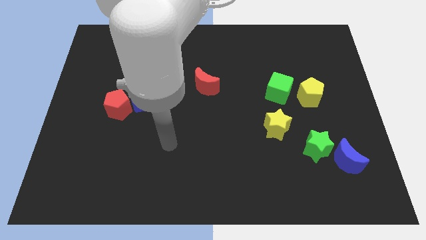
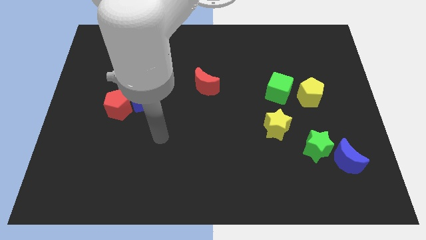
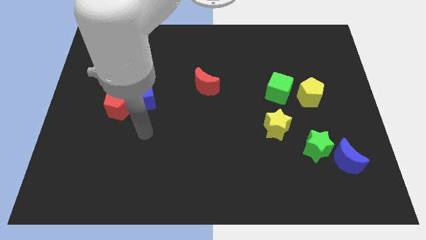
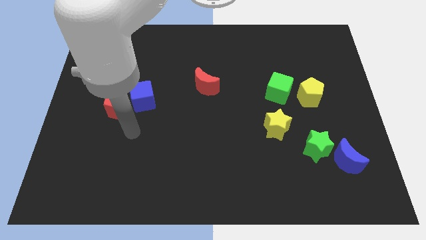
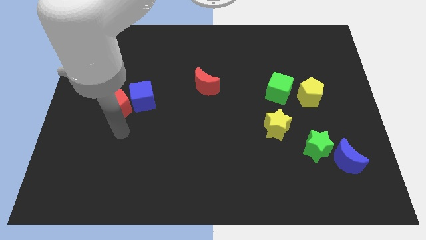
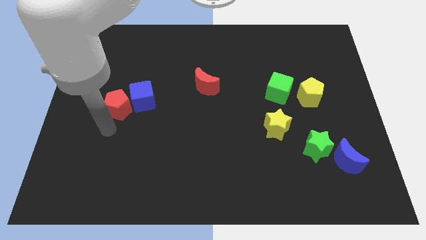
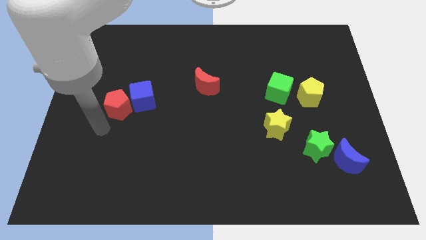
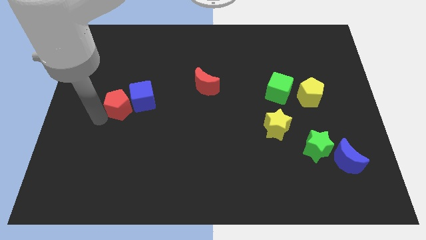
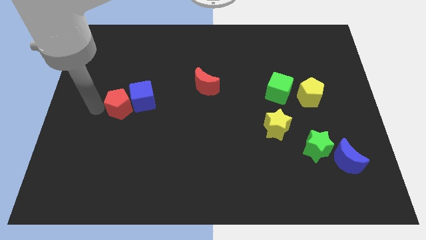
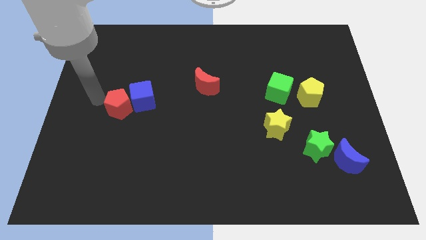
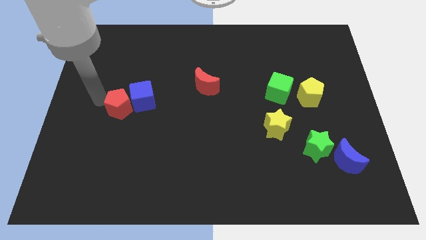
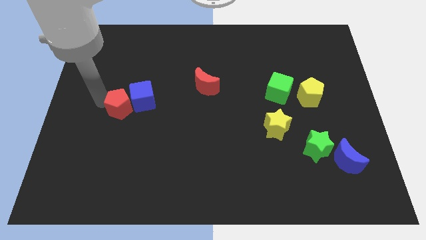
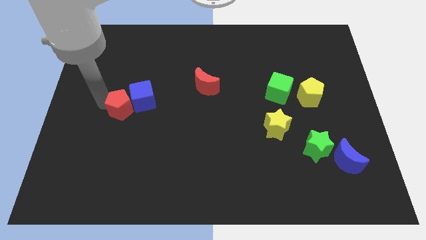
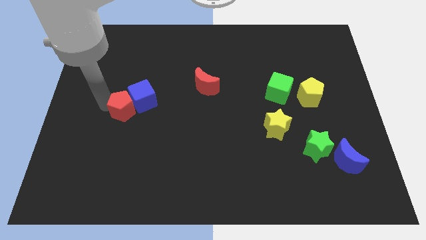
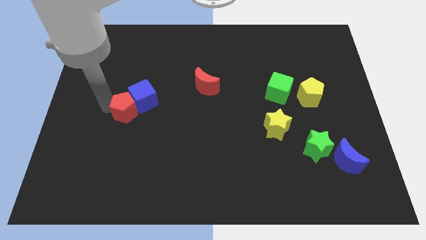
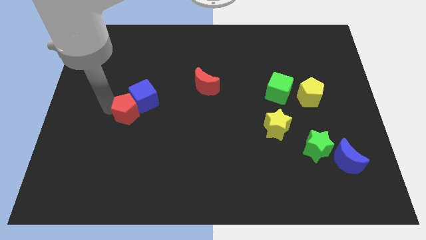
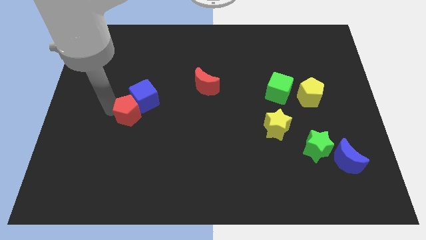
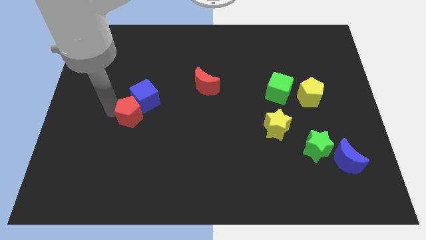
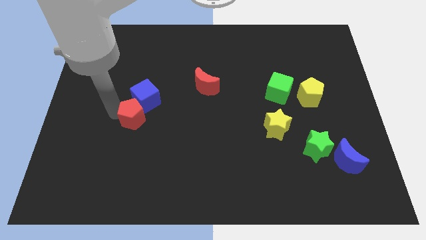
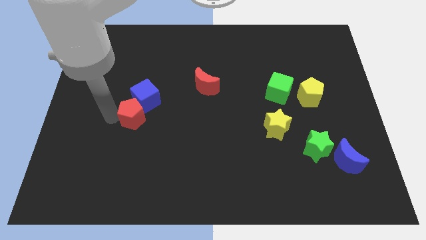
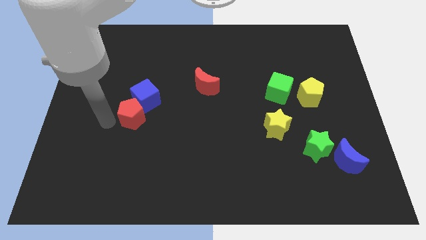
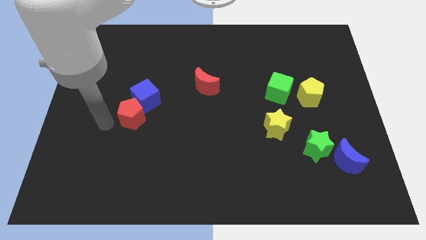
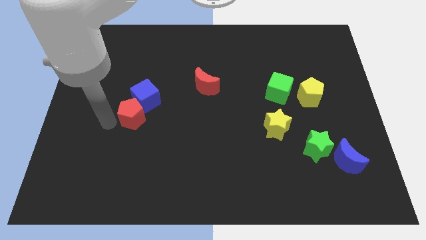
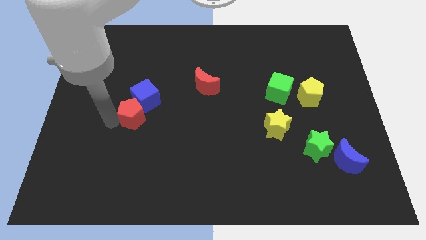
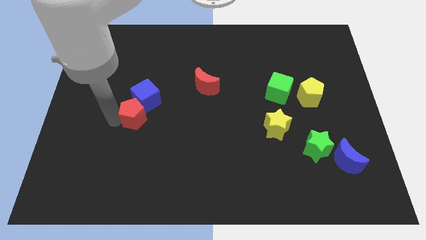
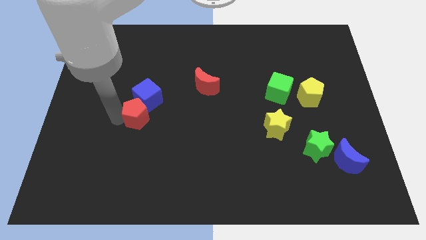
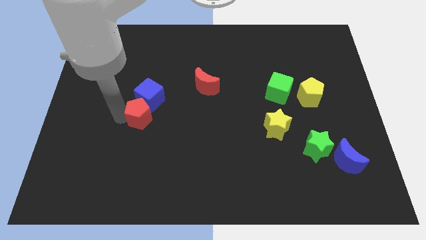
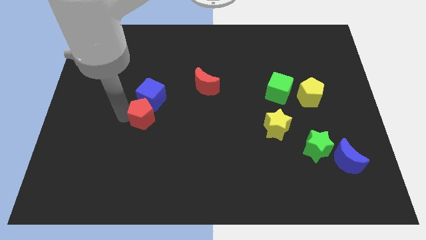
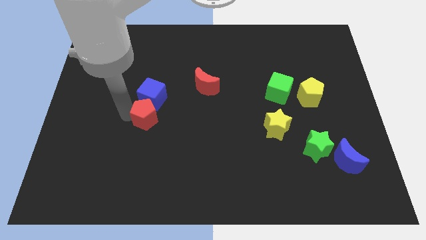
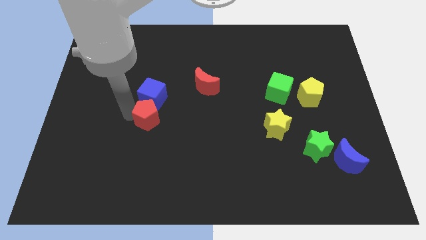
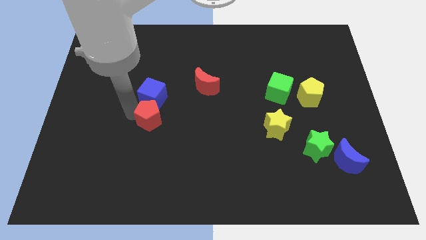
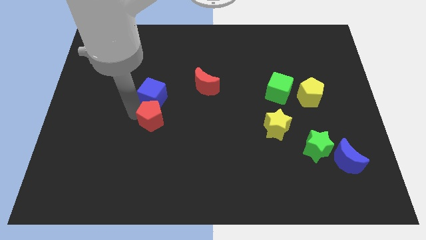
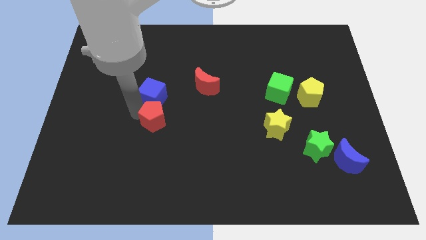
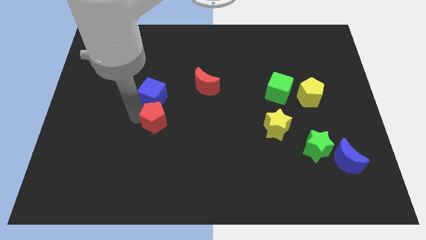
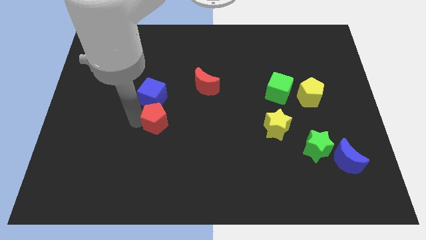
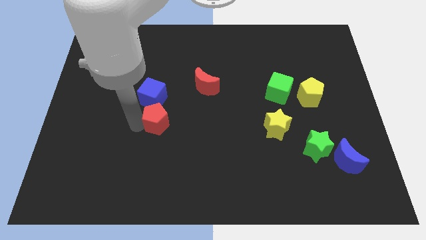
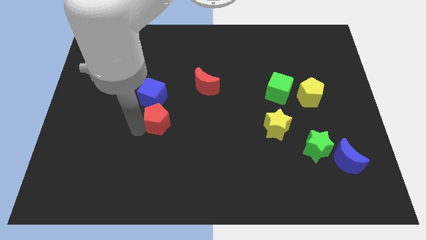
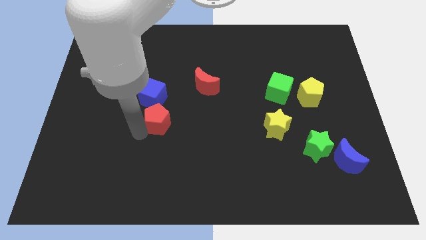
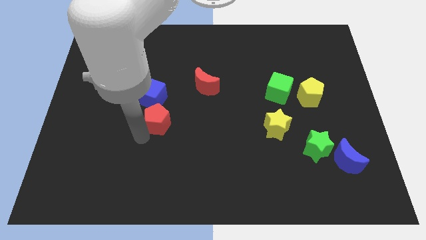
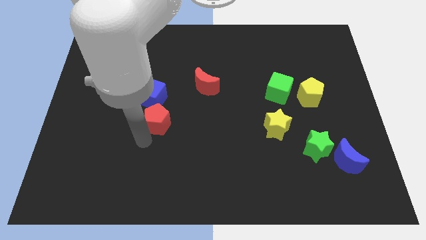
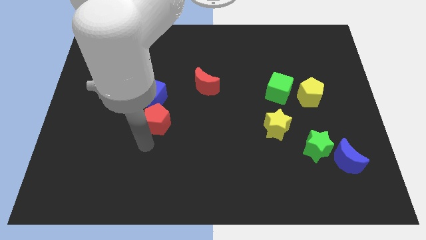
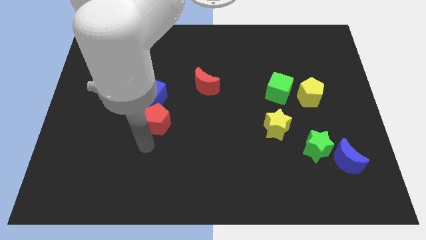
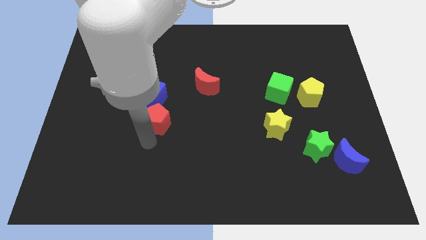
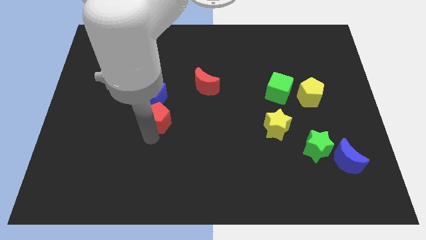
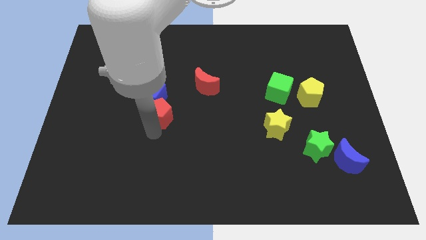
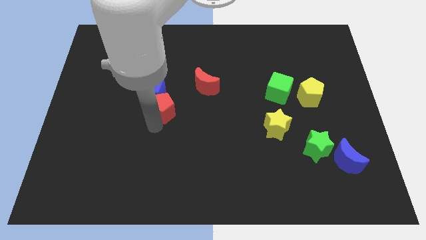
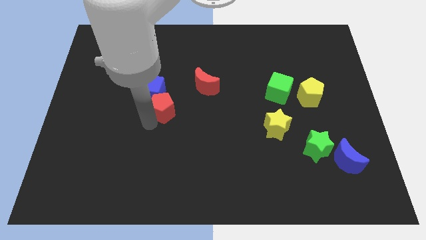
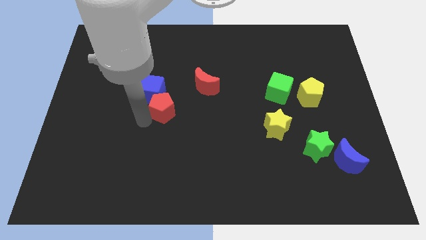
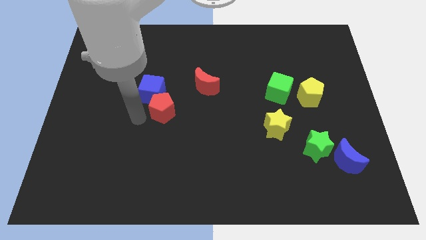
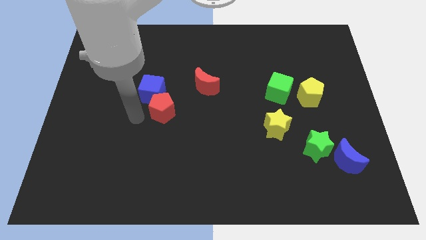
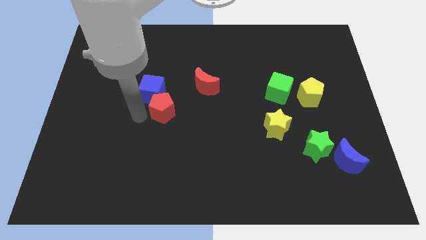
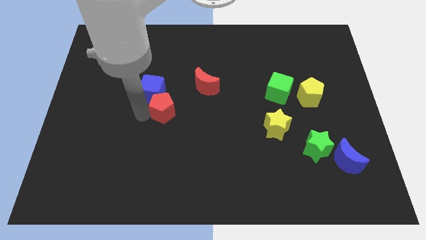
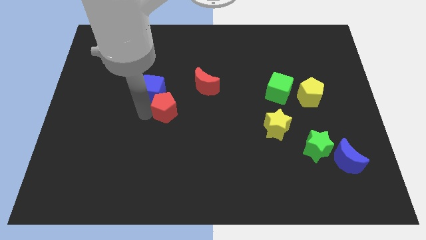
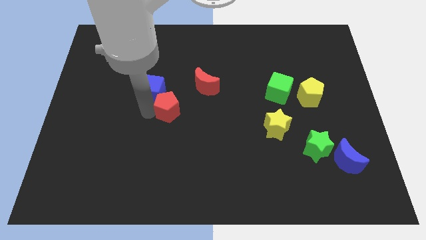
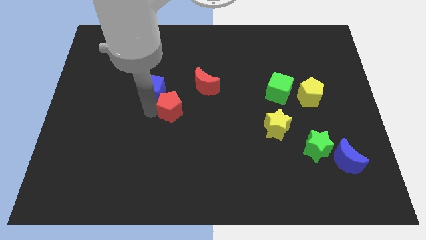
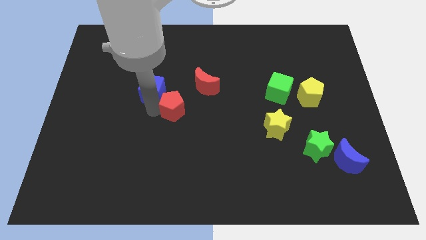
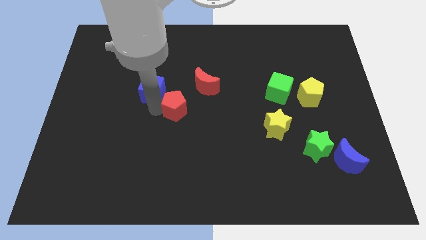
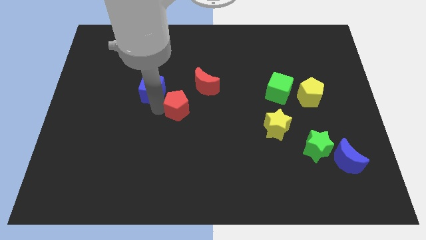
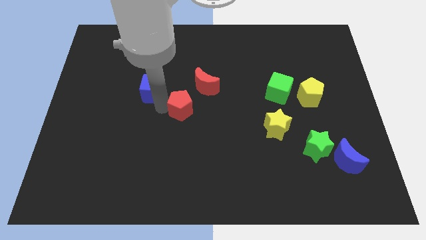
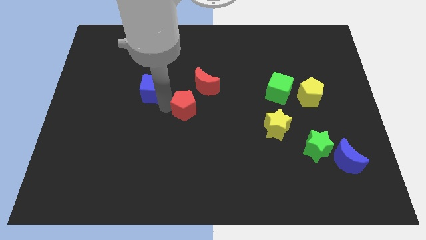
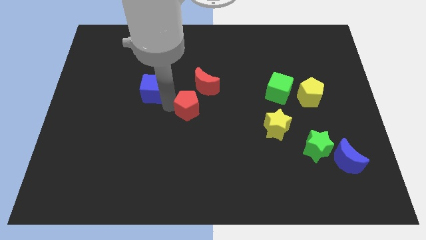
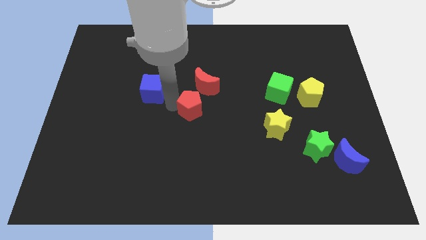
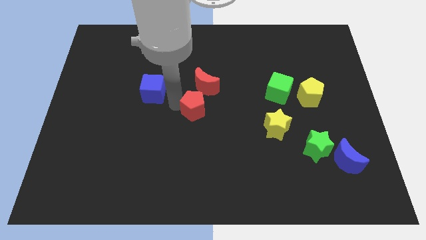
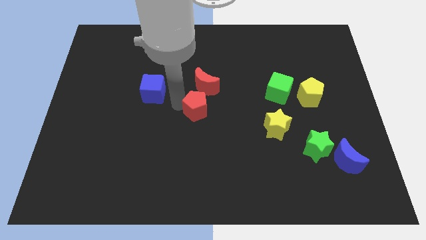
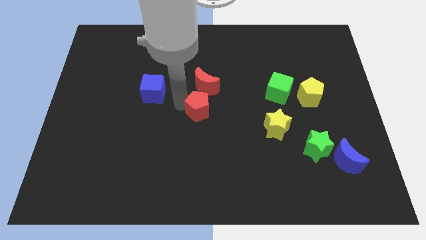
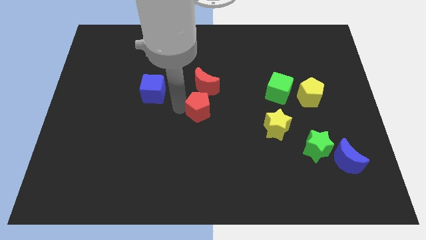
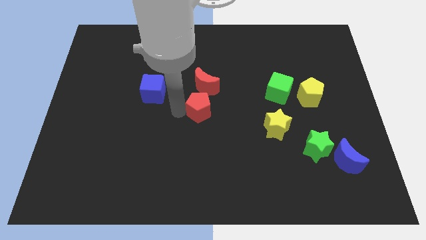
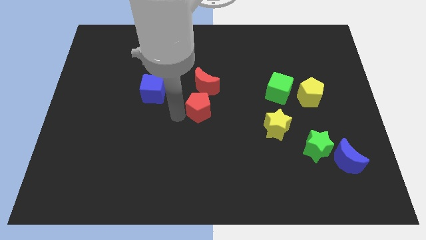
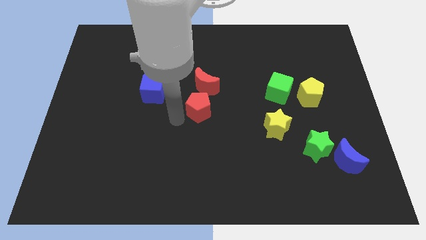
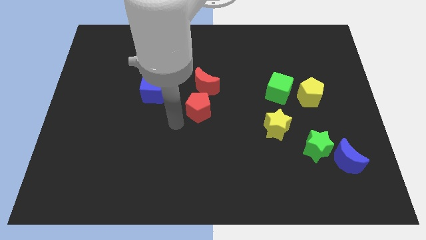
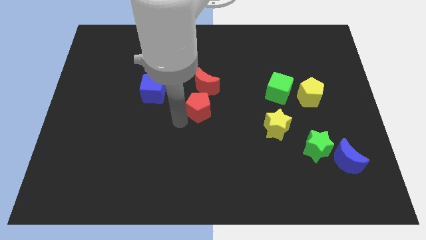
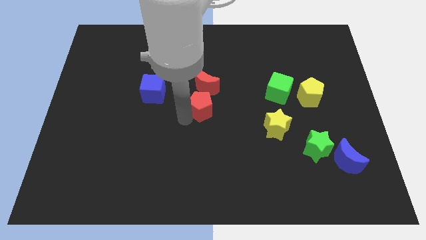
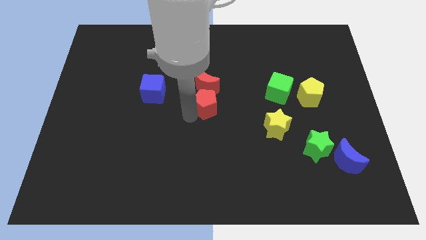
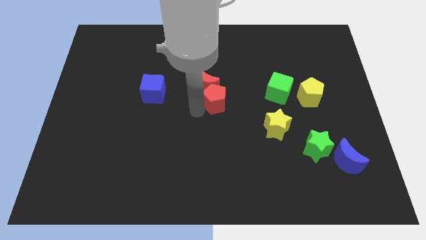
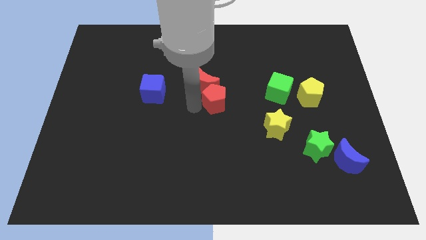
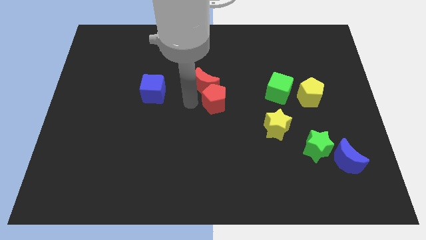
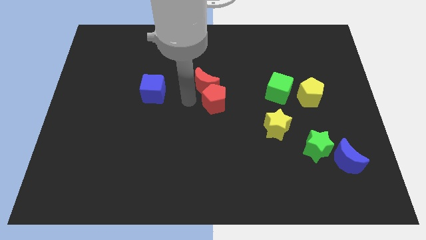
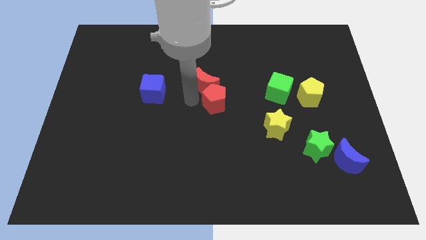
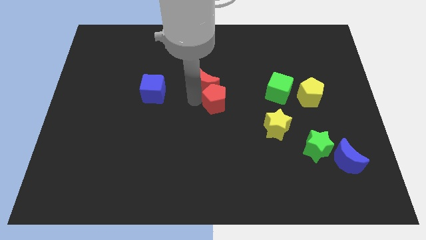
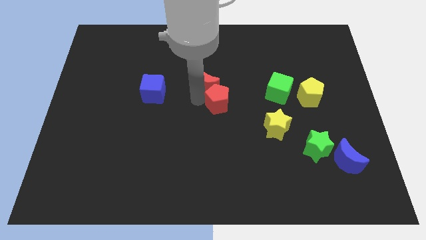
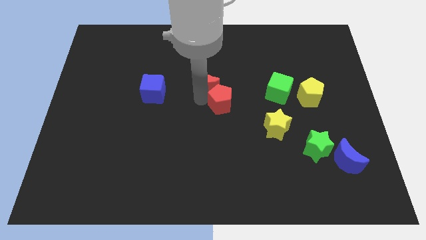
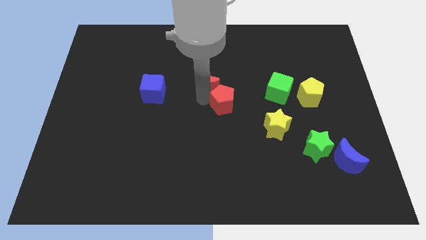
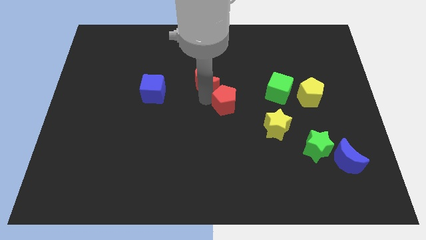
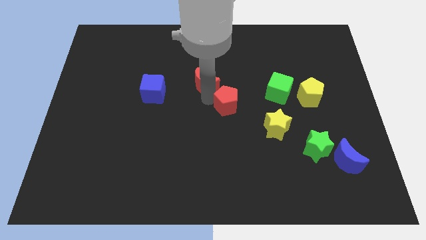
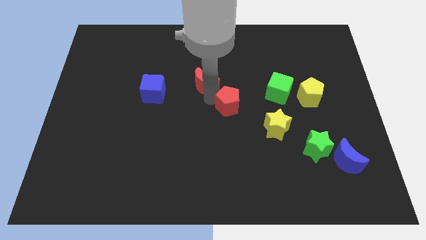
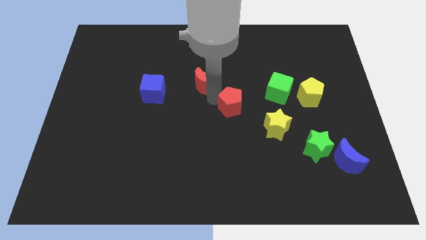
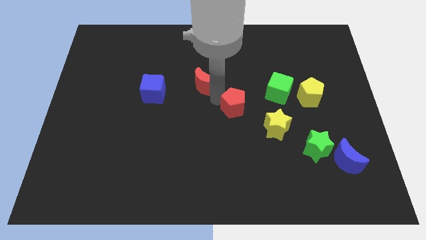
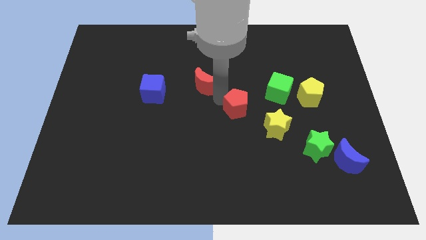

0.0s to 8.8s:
push the red pentagon to the bottom left side of the green cube
